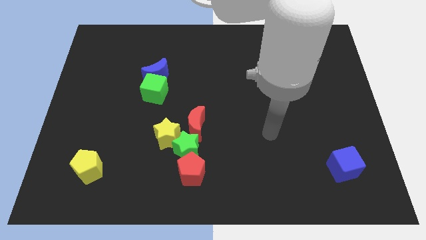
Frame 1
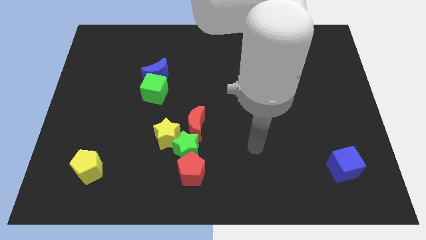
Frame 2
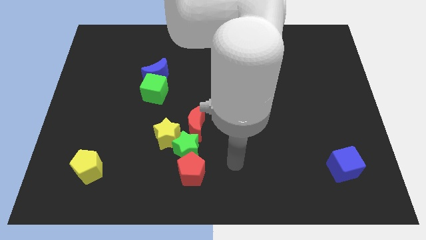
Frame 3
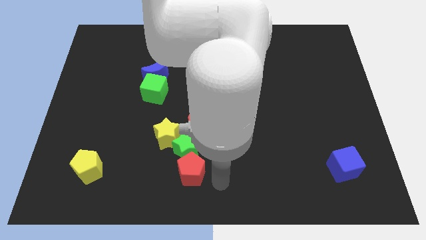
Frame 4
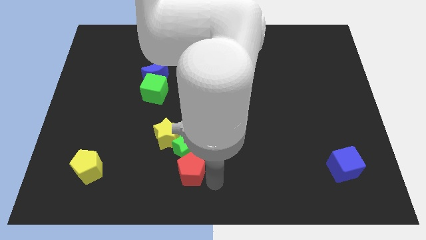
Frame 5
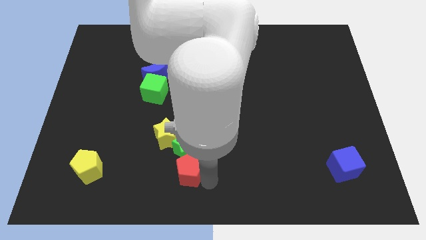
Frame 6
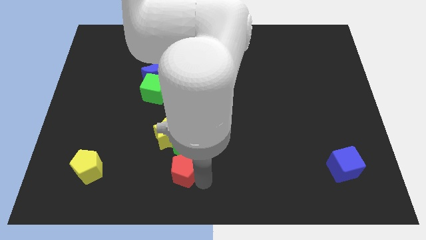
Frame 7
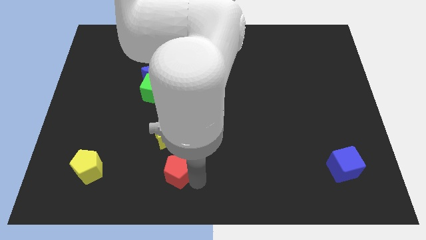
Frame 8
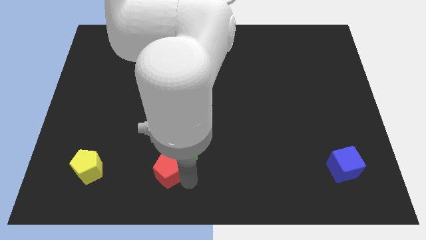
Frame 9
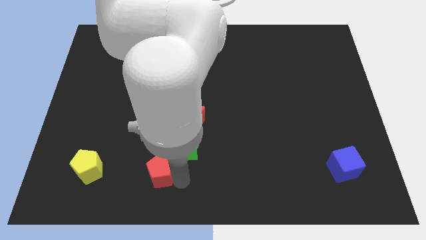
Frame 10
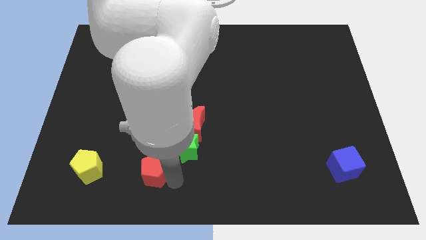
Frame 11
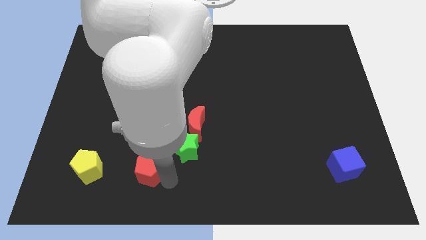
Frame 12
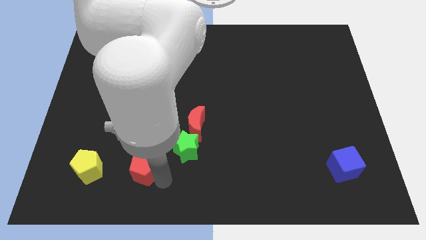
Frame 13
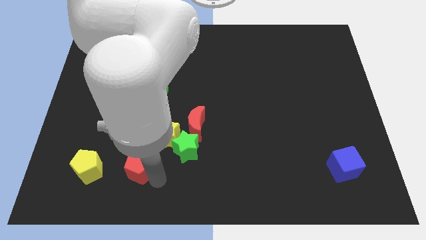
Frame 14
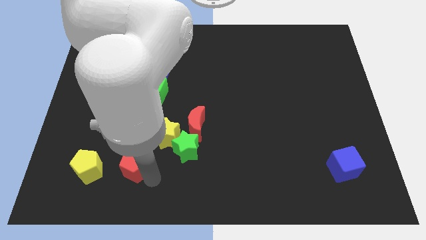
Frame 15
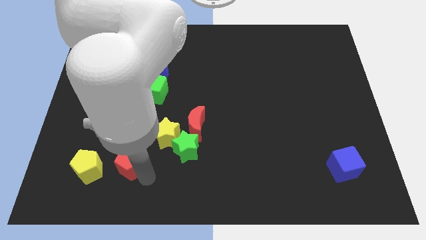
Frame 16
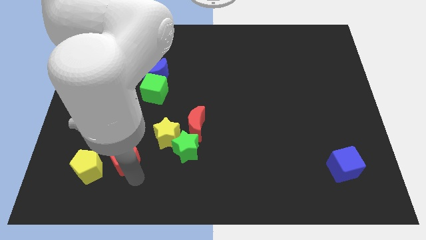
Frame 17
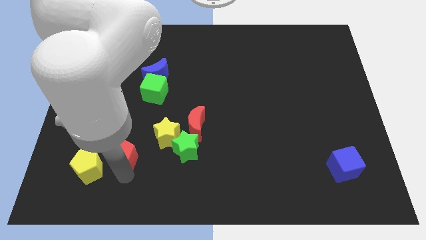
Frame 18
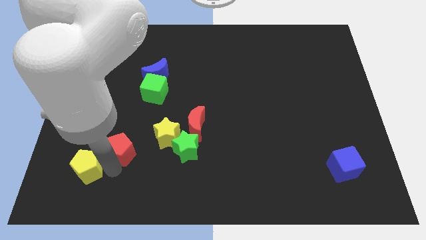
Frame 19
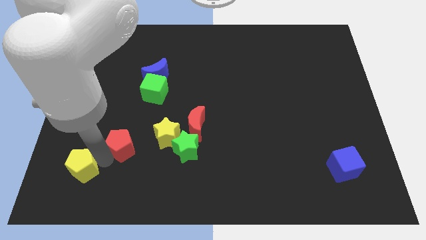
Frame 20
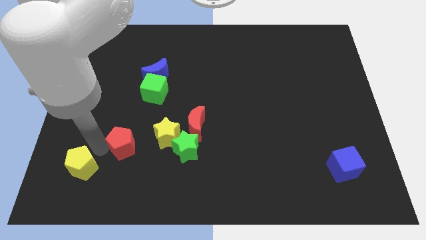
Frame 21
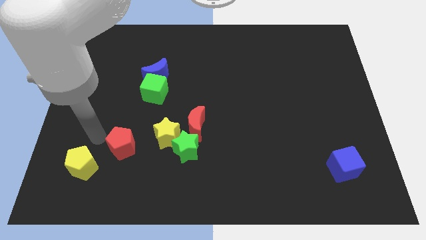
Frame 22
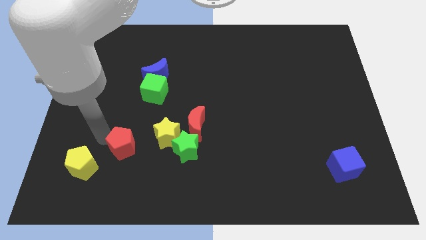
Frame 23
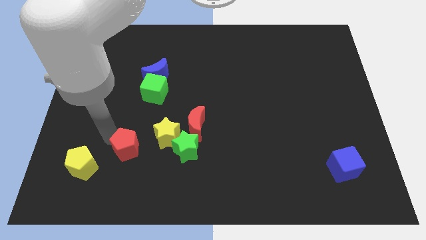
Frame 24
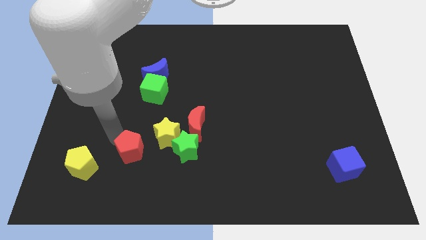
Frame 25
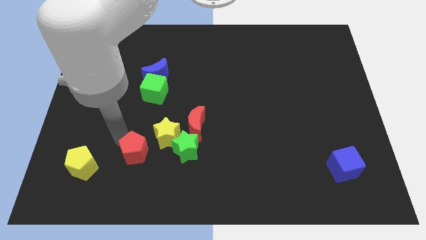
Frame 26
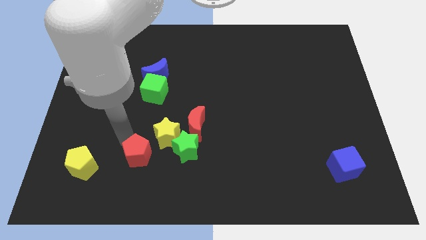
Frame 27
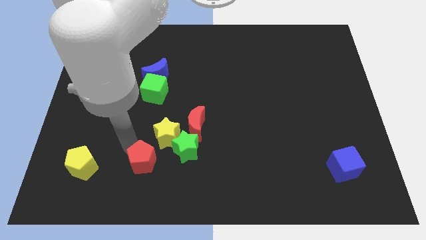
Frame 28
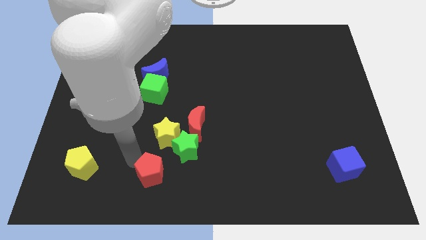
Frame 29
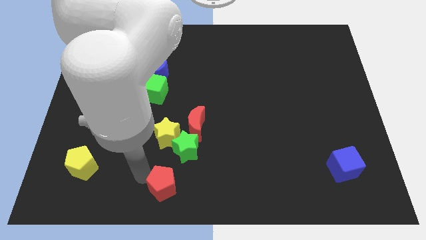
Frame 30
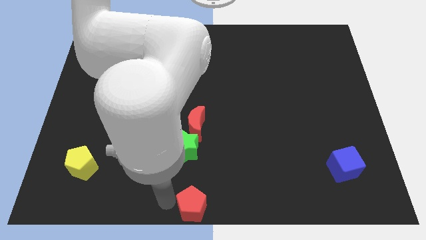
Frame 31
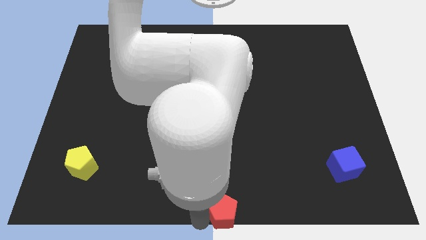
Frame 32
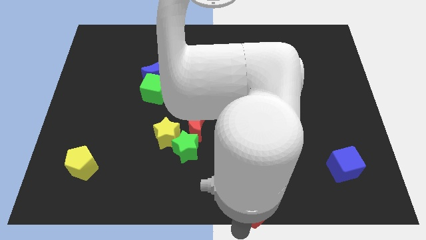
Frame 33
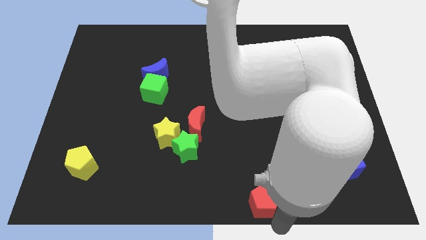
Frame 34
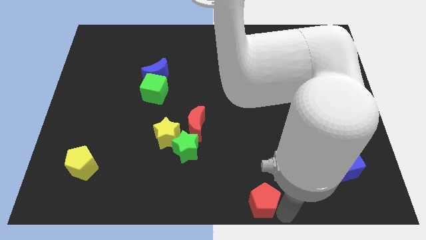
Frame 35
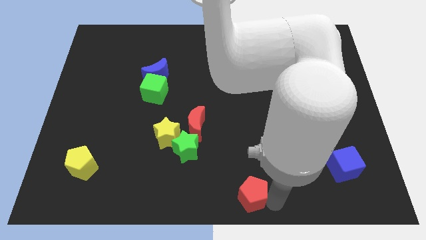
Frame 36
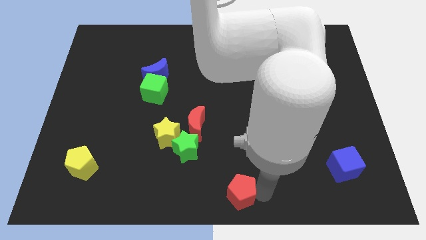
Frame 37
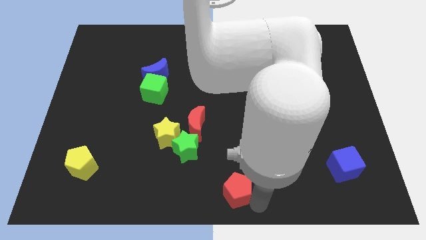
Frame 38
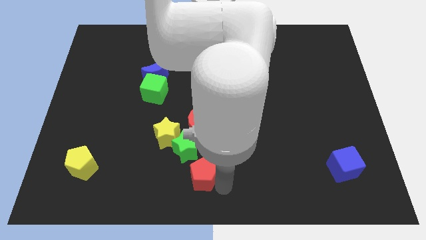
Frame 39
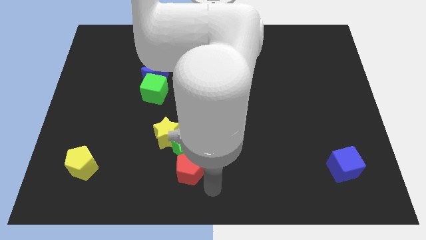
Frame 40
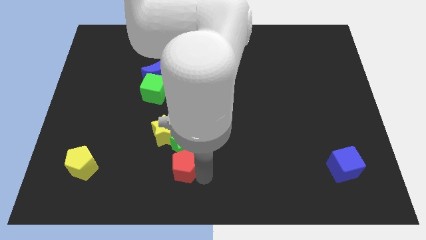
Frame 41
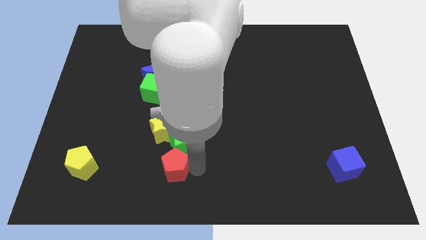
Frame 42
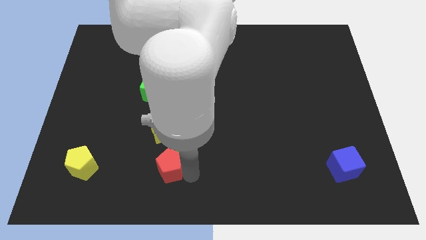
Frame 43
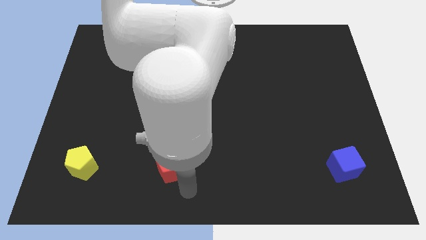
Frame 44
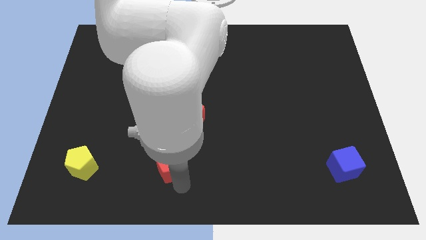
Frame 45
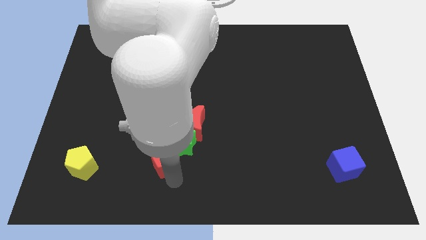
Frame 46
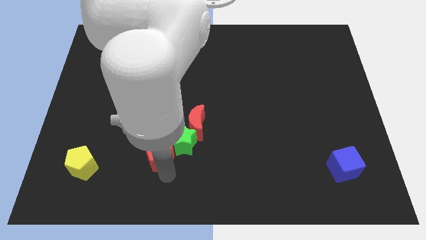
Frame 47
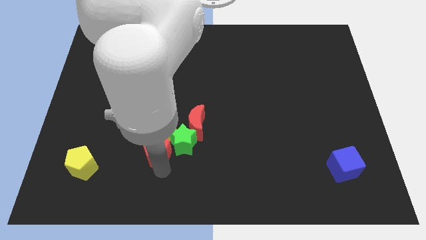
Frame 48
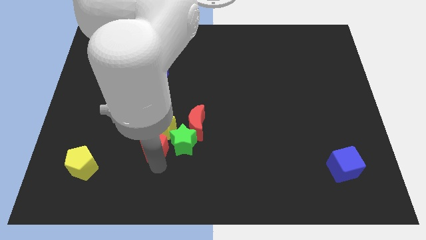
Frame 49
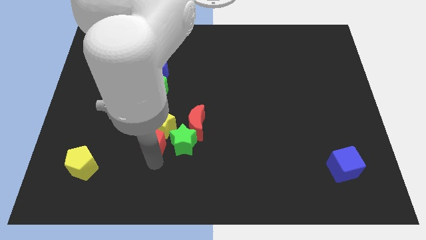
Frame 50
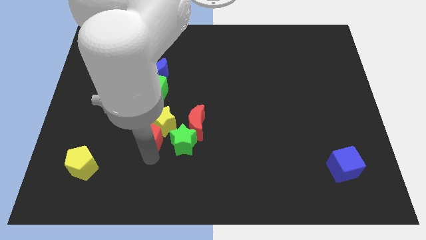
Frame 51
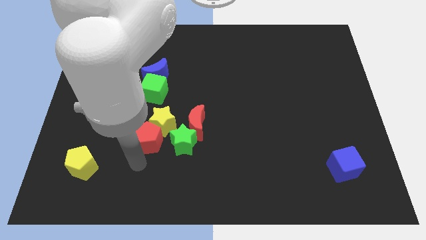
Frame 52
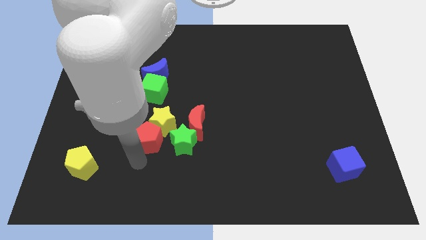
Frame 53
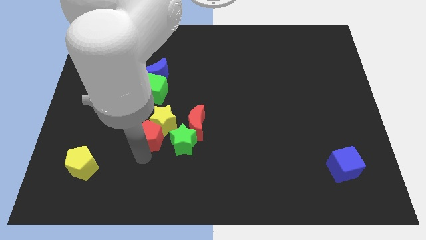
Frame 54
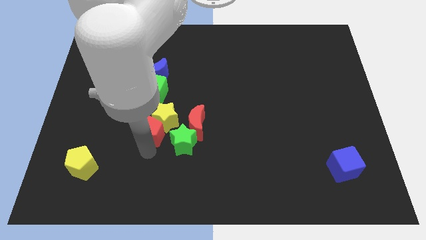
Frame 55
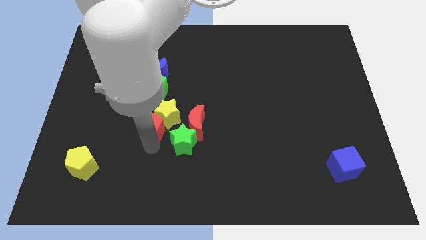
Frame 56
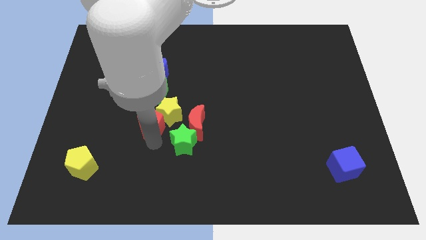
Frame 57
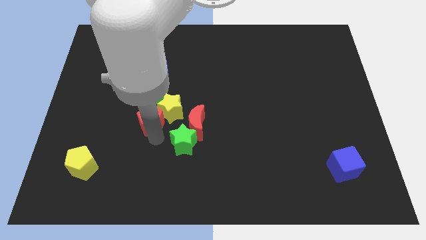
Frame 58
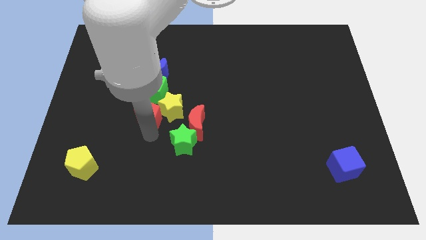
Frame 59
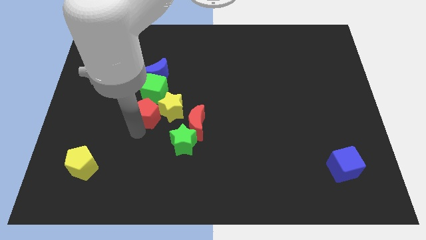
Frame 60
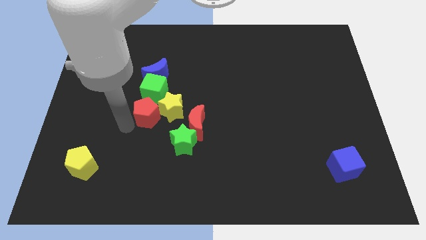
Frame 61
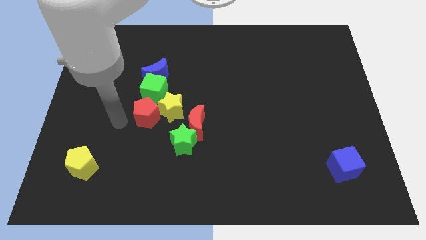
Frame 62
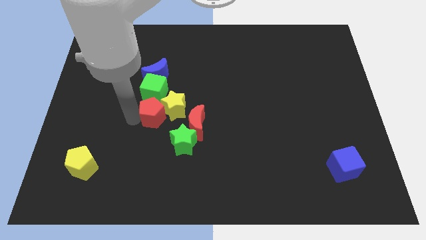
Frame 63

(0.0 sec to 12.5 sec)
put the red pentagon diagonally down and to the right of the green cube

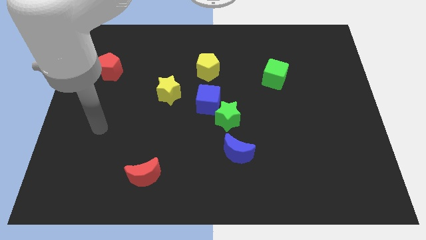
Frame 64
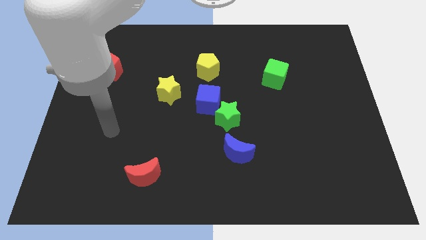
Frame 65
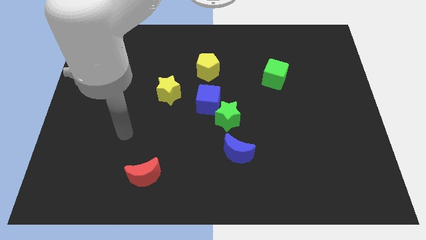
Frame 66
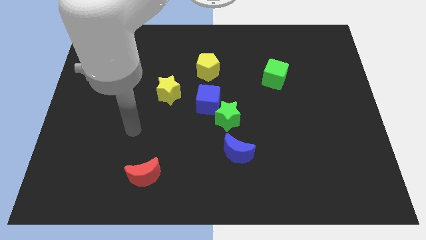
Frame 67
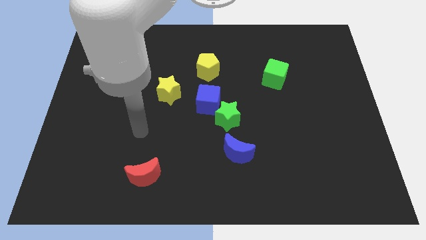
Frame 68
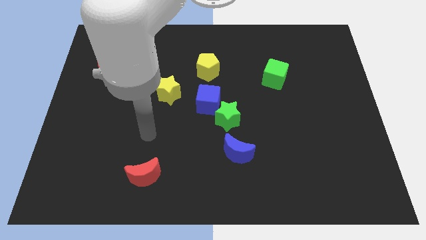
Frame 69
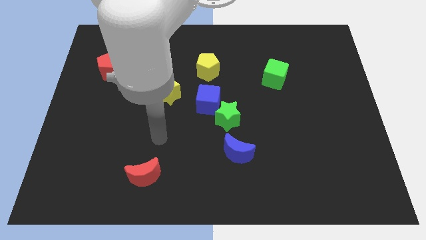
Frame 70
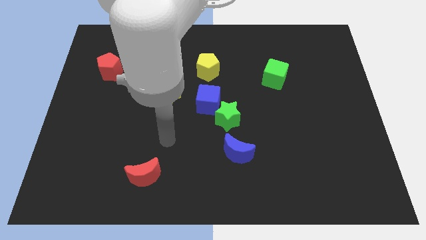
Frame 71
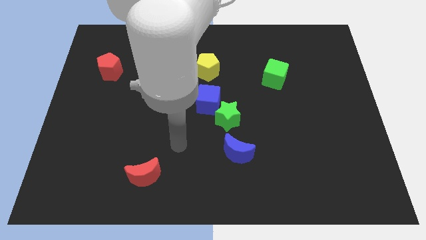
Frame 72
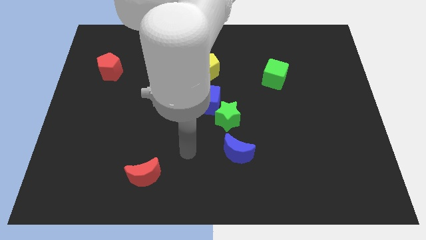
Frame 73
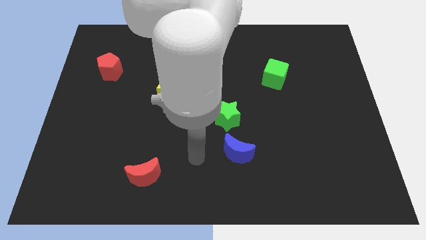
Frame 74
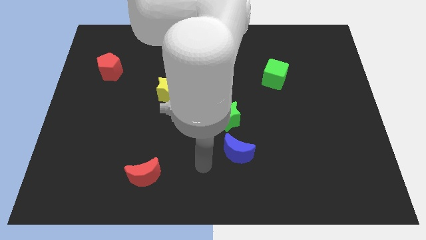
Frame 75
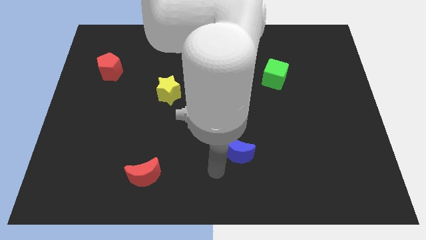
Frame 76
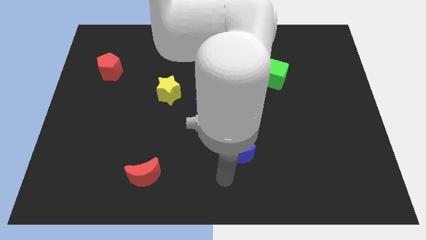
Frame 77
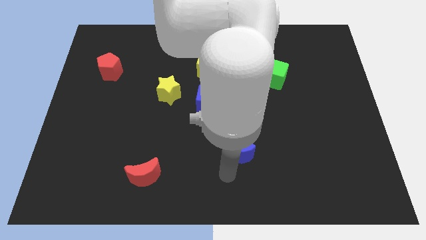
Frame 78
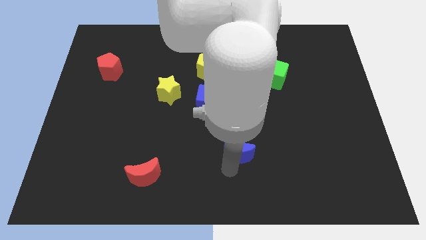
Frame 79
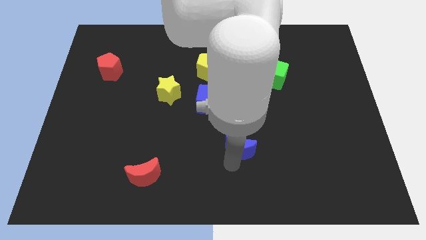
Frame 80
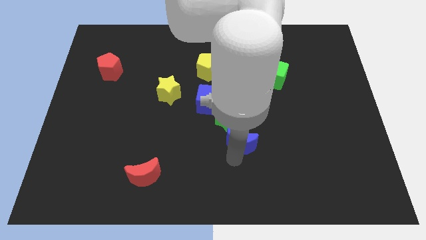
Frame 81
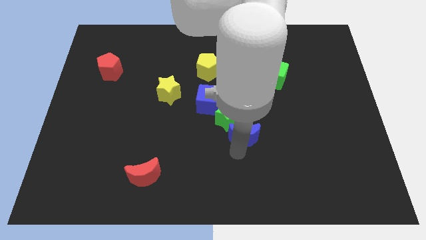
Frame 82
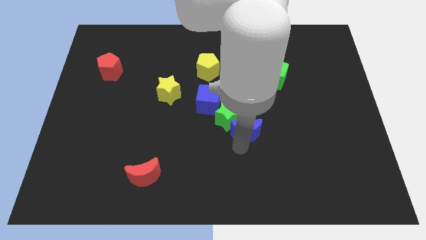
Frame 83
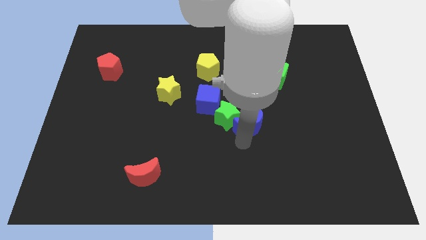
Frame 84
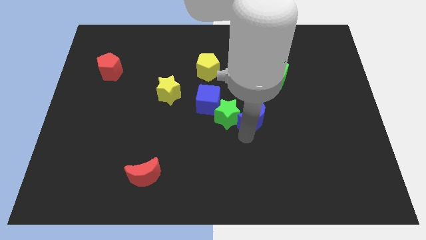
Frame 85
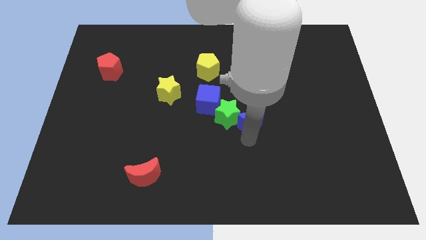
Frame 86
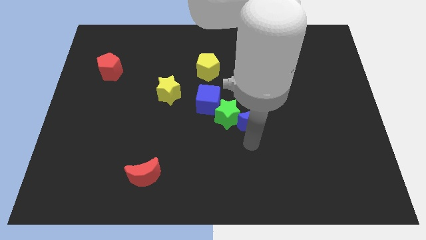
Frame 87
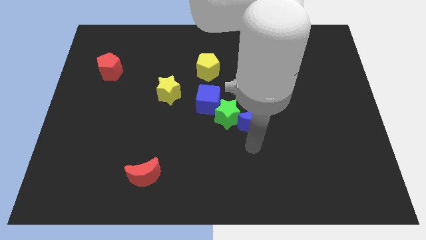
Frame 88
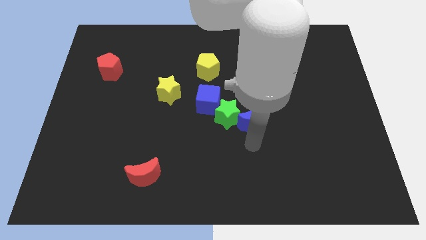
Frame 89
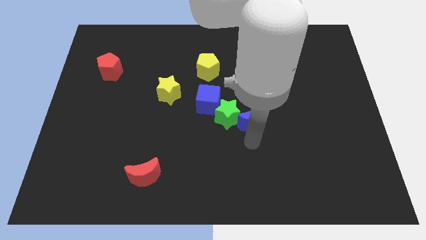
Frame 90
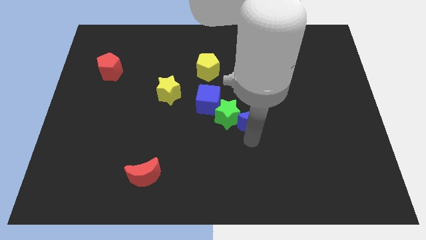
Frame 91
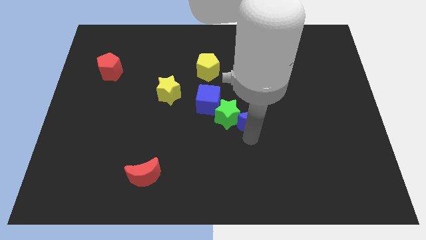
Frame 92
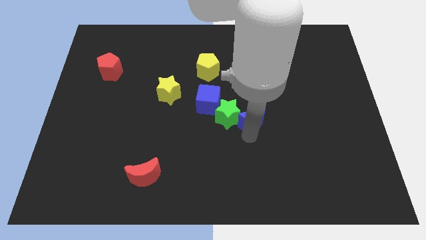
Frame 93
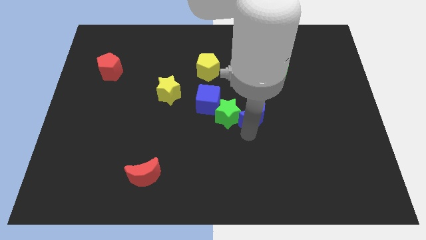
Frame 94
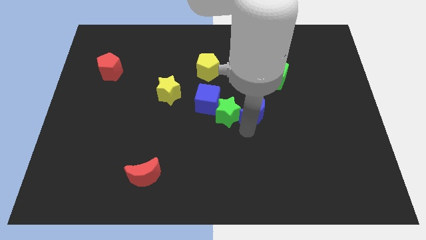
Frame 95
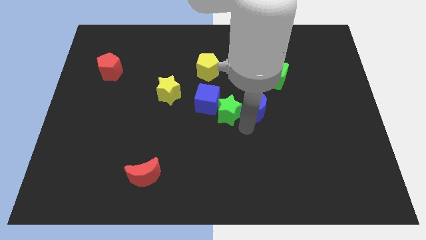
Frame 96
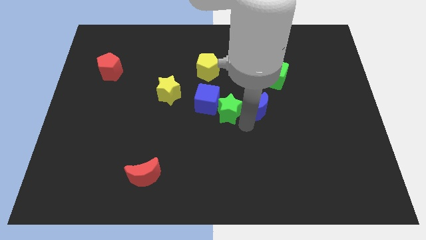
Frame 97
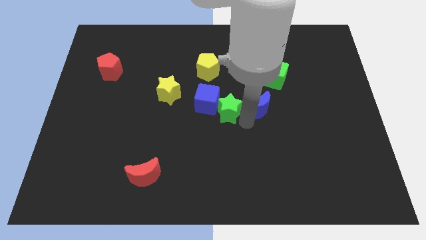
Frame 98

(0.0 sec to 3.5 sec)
slide the blue moon diagonally down and to the left of the green cube
